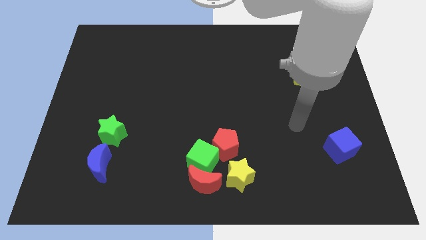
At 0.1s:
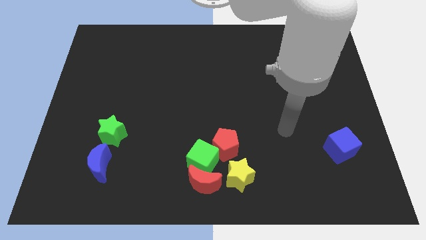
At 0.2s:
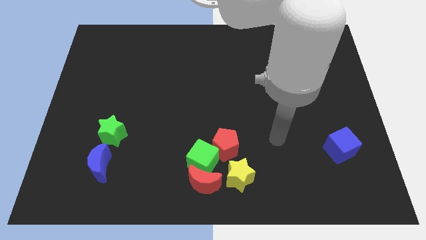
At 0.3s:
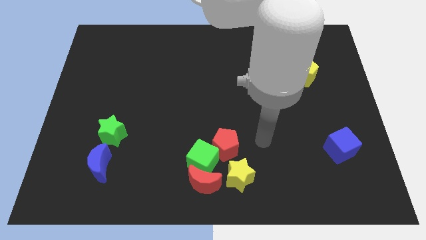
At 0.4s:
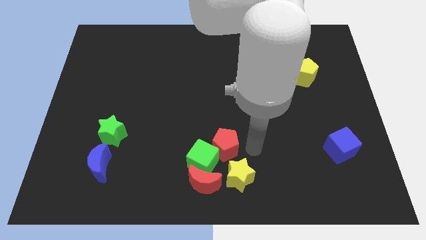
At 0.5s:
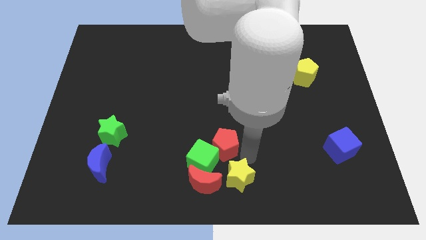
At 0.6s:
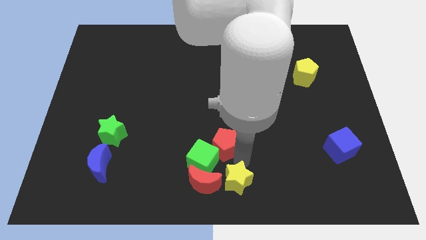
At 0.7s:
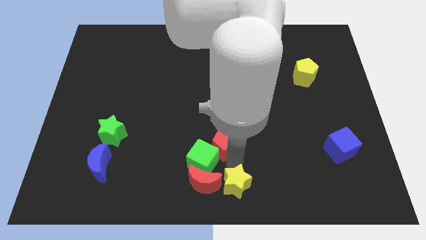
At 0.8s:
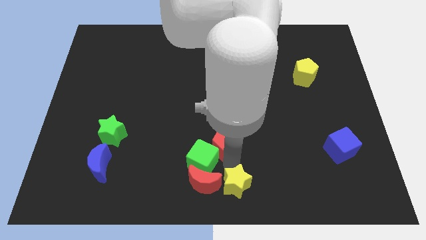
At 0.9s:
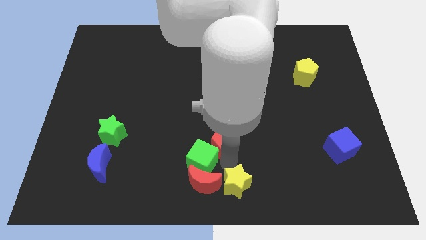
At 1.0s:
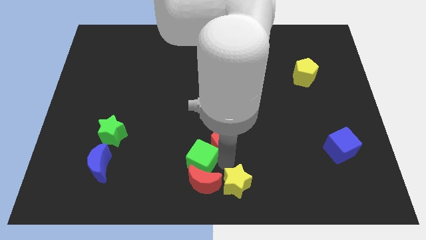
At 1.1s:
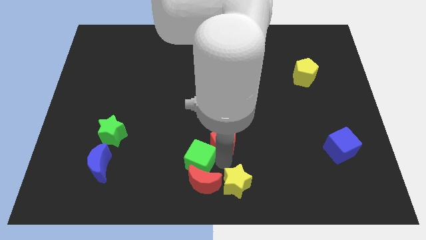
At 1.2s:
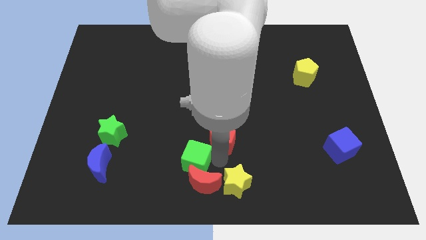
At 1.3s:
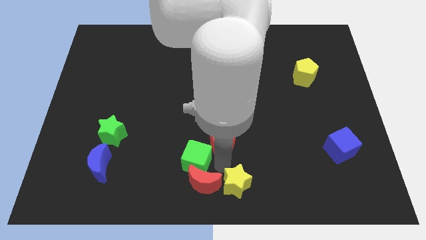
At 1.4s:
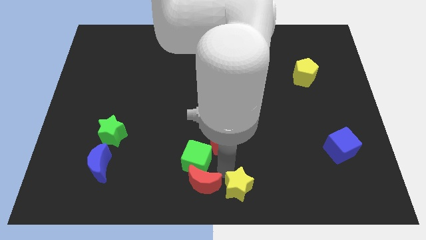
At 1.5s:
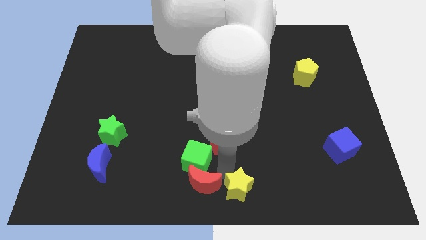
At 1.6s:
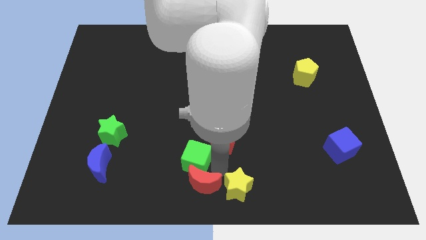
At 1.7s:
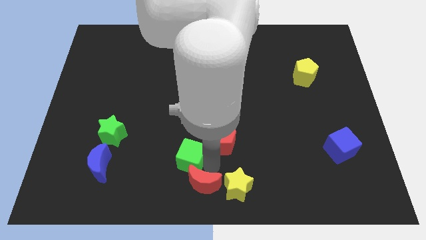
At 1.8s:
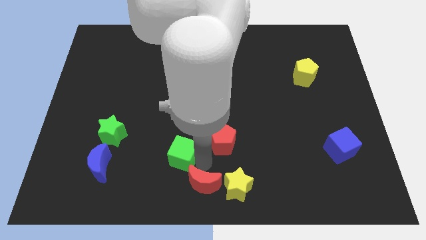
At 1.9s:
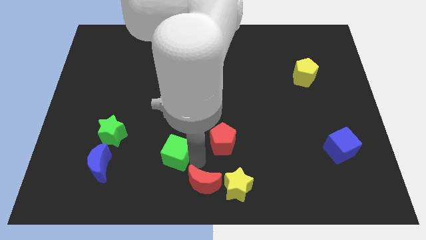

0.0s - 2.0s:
pull the green cube apart from the red moon, red pentagon, and yellow star

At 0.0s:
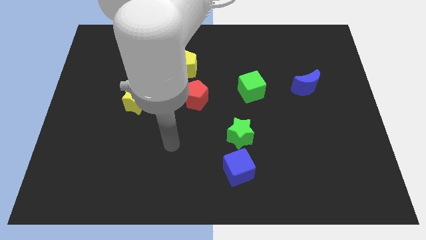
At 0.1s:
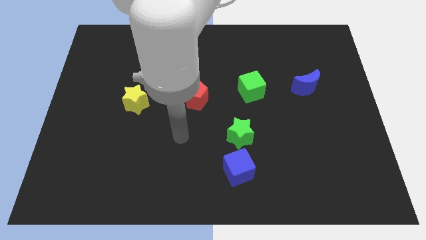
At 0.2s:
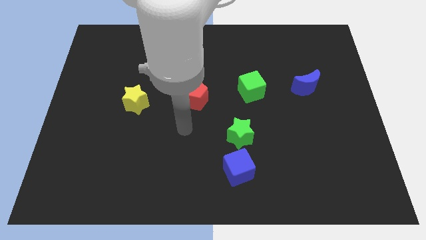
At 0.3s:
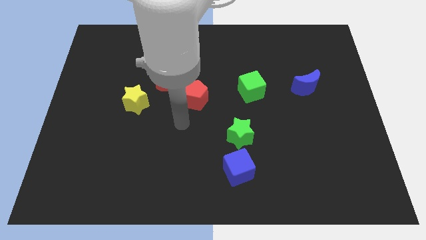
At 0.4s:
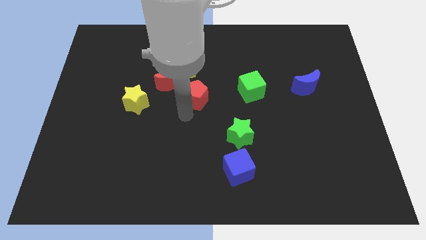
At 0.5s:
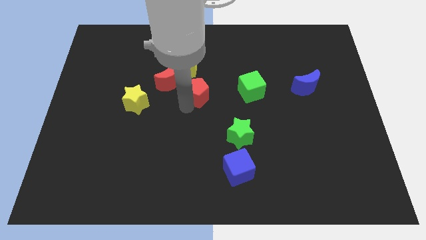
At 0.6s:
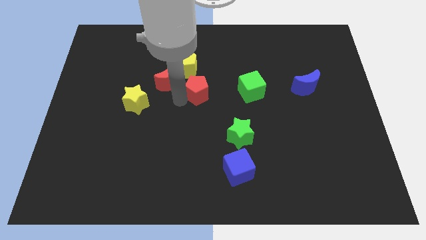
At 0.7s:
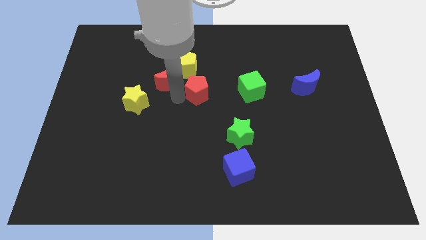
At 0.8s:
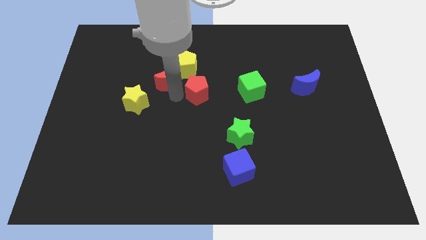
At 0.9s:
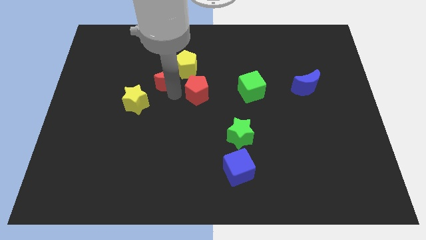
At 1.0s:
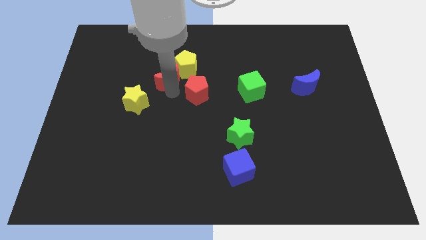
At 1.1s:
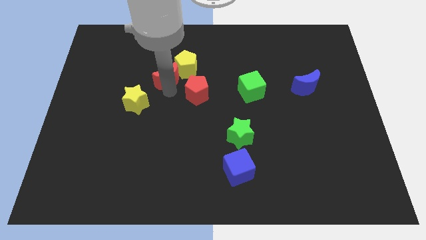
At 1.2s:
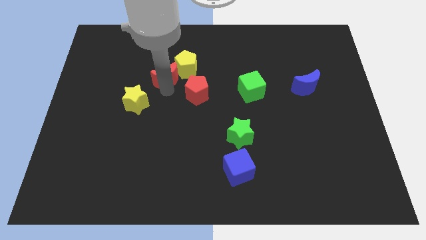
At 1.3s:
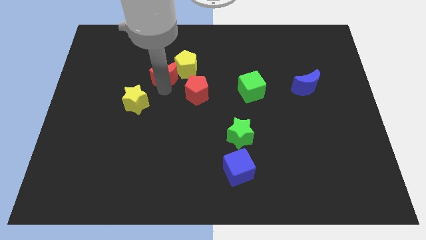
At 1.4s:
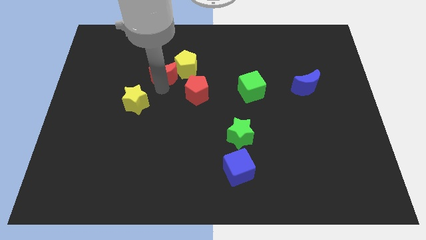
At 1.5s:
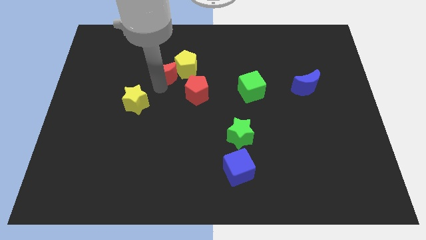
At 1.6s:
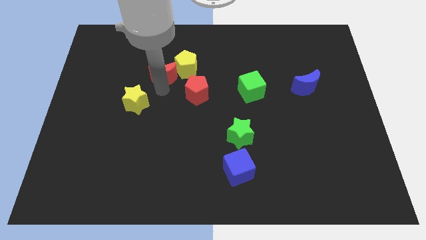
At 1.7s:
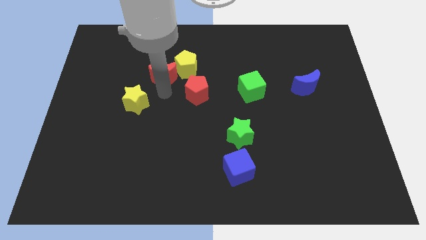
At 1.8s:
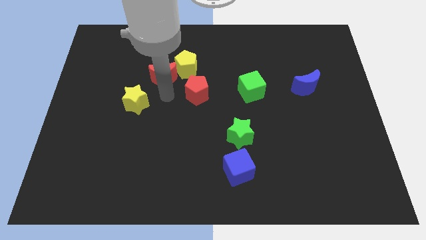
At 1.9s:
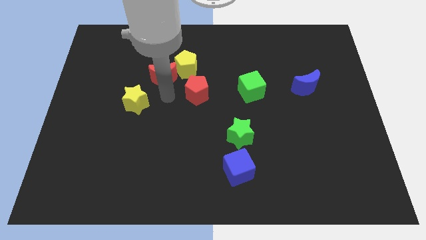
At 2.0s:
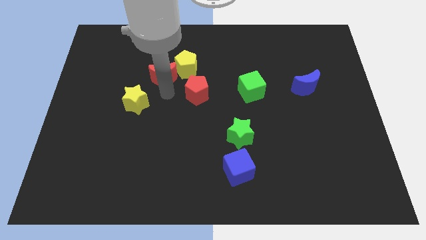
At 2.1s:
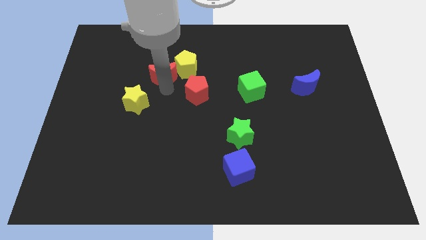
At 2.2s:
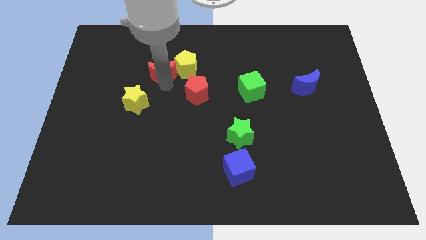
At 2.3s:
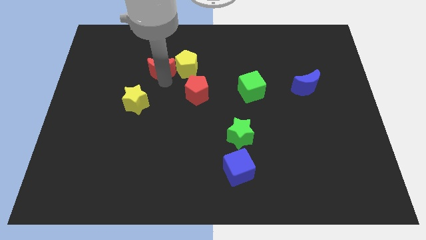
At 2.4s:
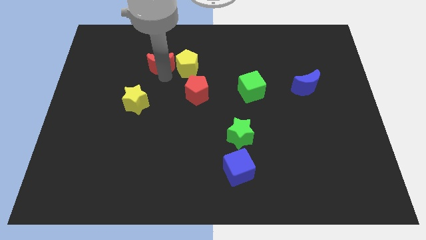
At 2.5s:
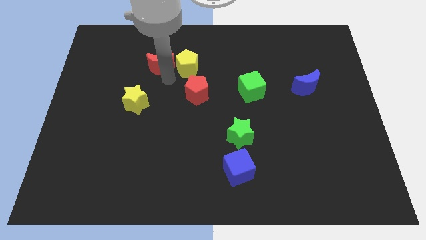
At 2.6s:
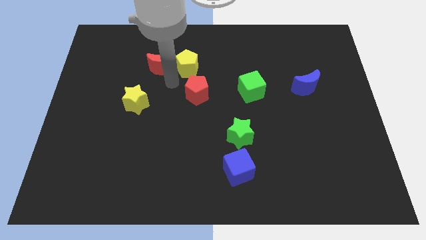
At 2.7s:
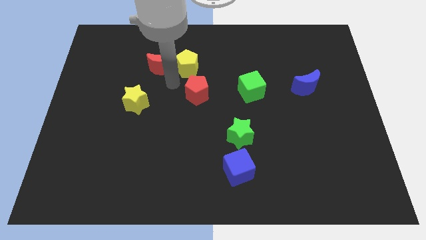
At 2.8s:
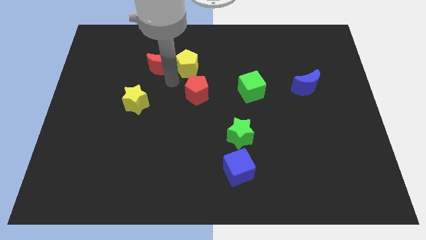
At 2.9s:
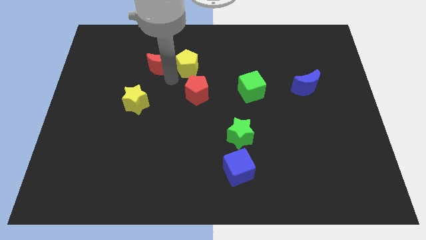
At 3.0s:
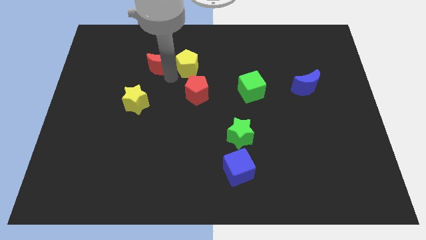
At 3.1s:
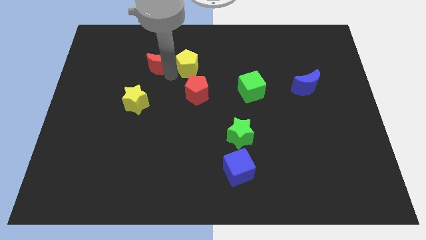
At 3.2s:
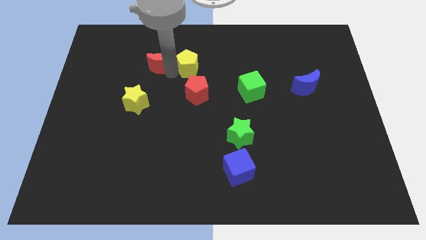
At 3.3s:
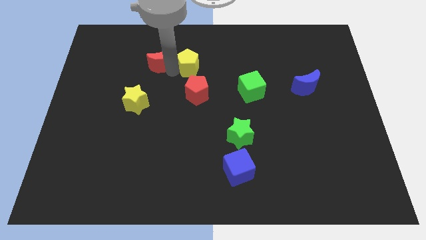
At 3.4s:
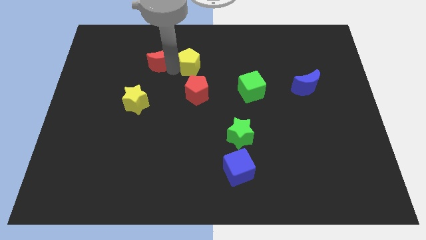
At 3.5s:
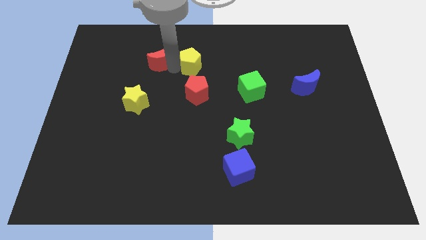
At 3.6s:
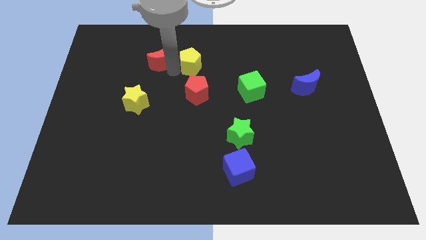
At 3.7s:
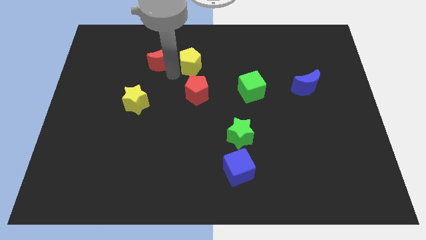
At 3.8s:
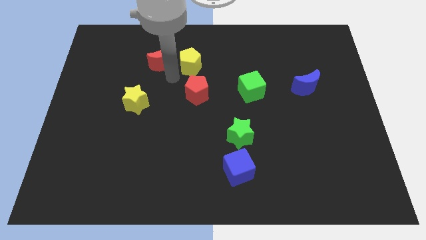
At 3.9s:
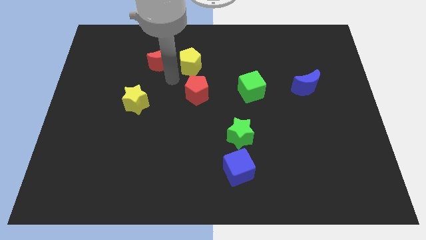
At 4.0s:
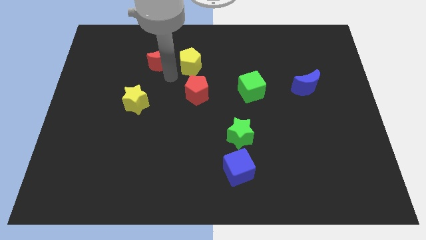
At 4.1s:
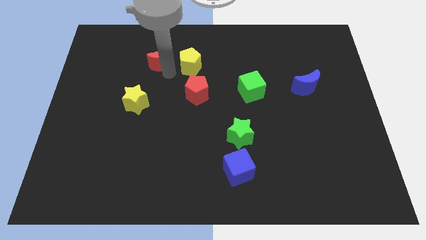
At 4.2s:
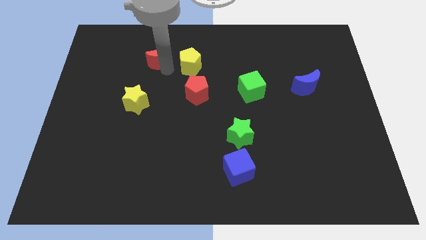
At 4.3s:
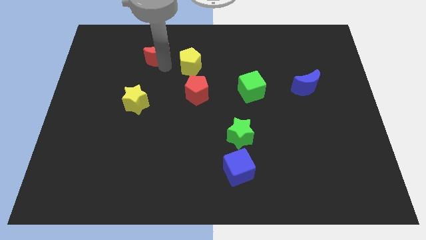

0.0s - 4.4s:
move the red moon away from the clump

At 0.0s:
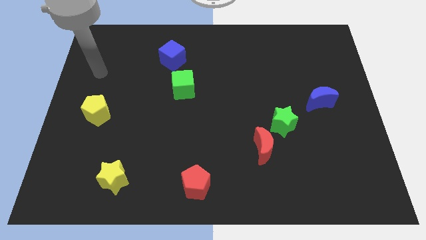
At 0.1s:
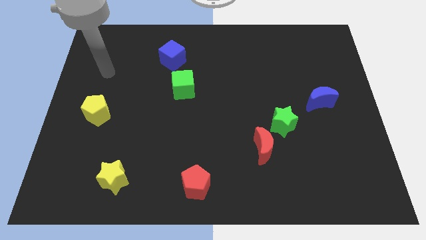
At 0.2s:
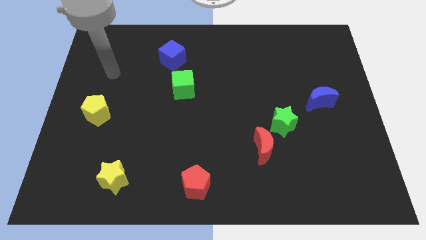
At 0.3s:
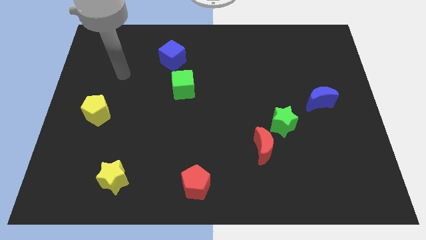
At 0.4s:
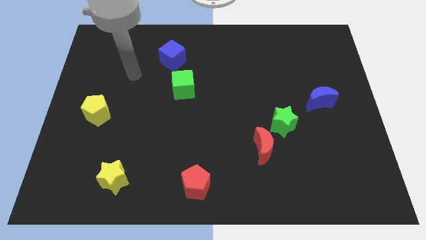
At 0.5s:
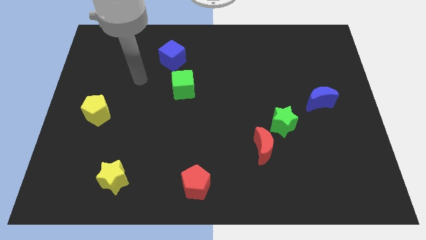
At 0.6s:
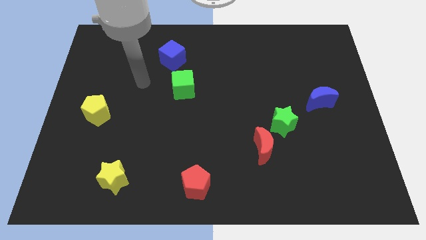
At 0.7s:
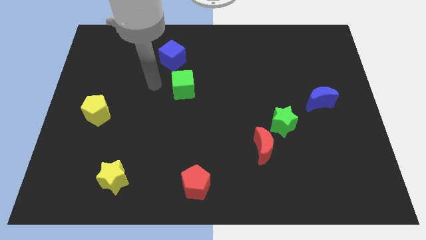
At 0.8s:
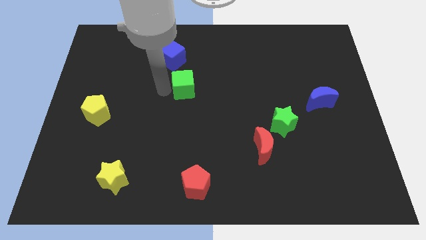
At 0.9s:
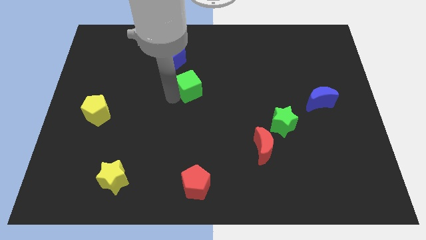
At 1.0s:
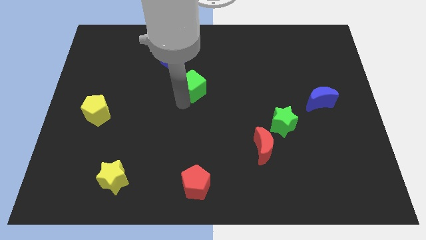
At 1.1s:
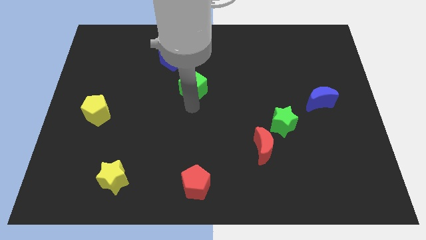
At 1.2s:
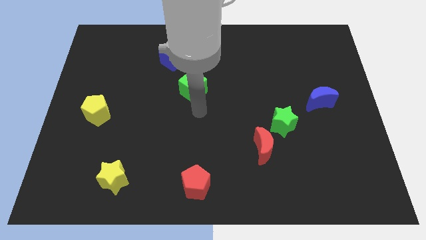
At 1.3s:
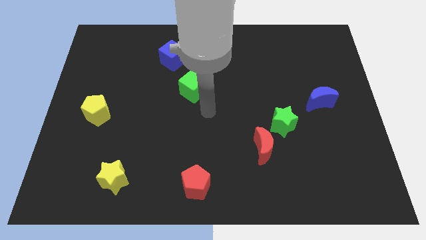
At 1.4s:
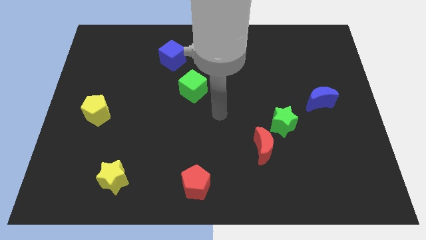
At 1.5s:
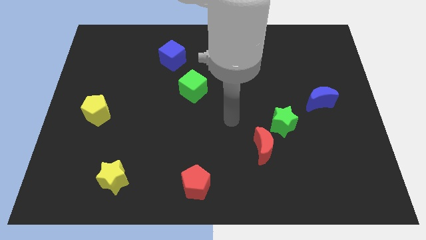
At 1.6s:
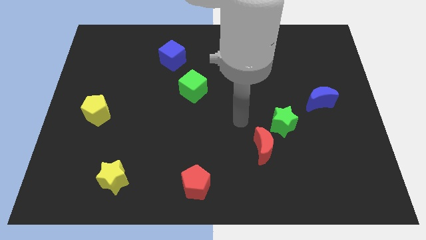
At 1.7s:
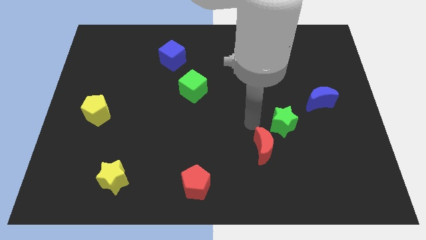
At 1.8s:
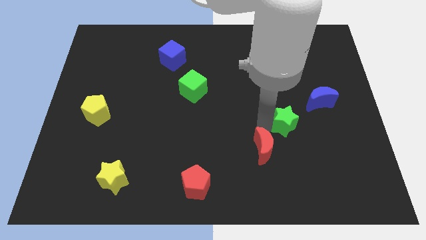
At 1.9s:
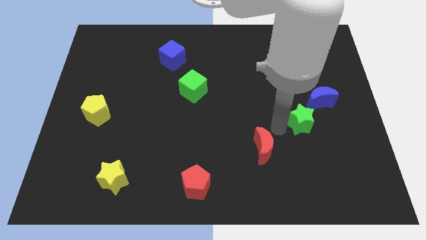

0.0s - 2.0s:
pull the red moon apart from the green star

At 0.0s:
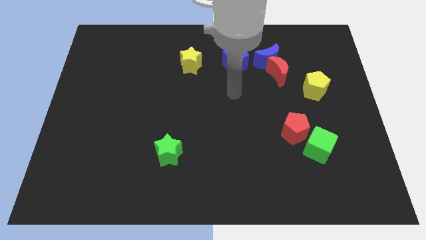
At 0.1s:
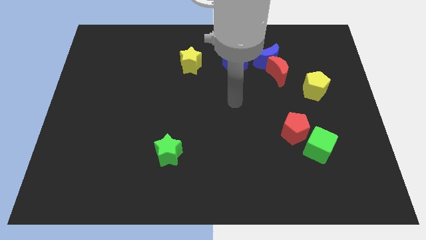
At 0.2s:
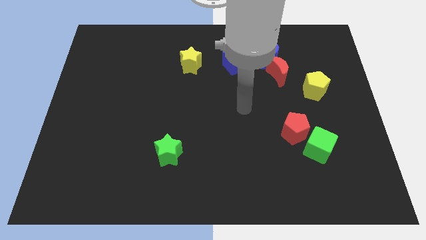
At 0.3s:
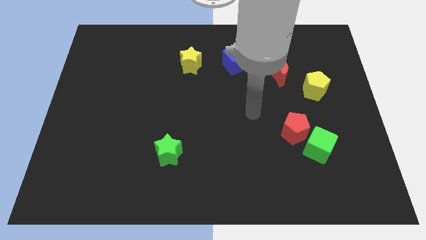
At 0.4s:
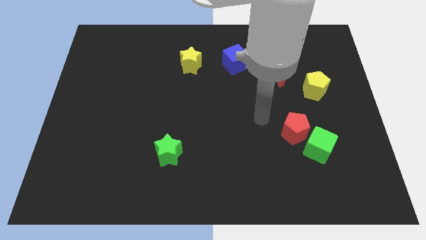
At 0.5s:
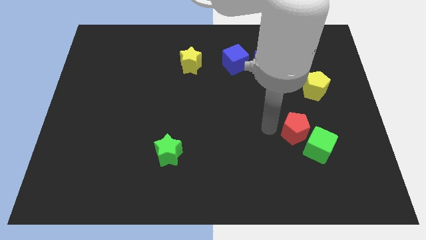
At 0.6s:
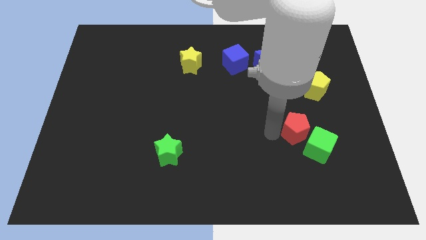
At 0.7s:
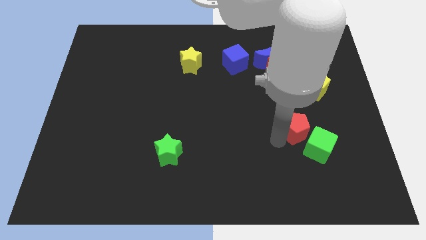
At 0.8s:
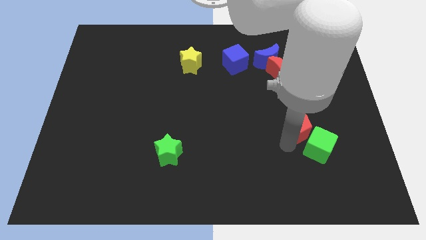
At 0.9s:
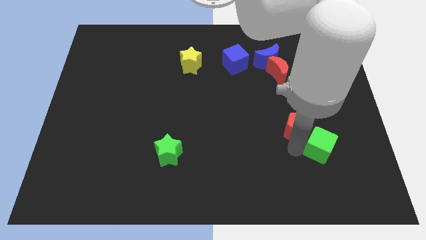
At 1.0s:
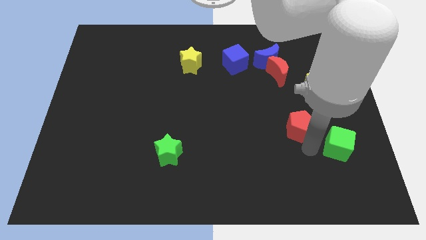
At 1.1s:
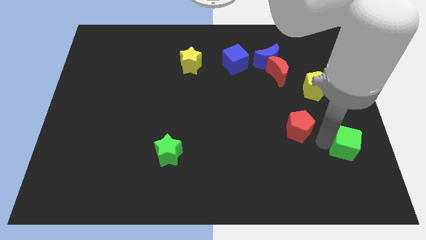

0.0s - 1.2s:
separate the red pentagon from the green cube
